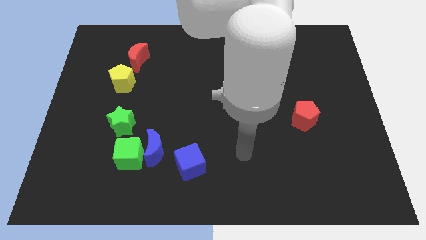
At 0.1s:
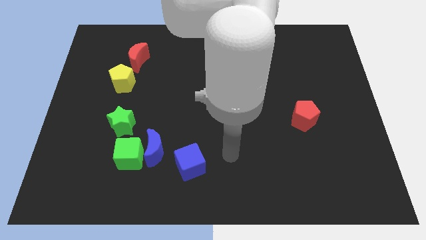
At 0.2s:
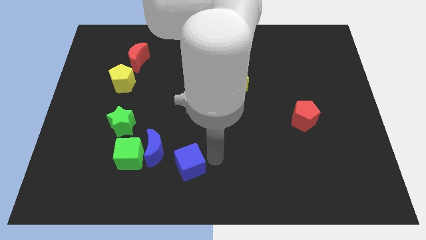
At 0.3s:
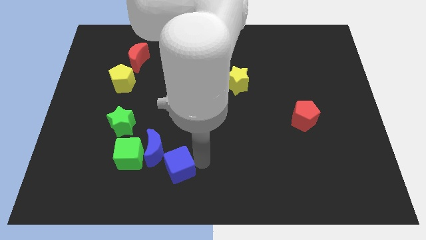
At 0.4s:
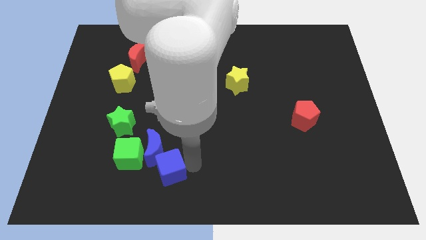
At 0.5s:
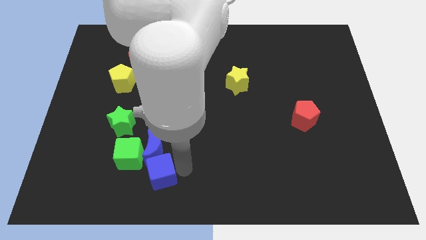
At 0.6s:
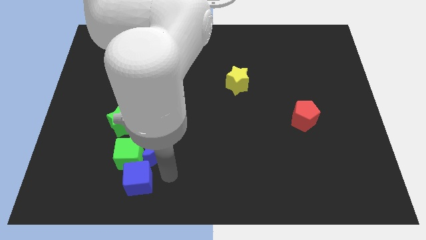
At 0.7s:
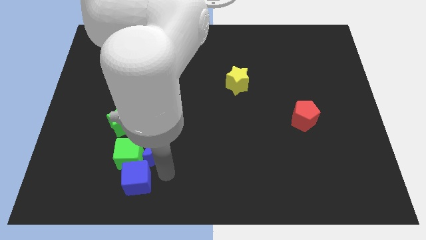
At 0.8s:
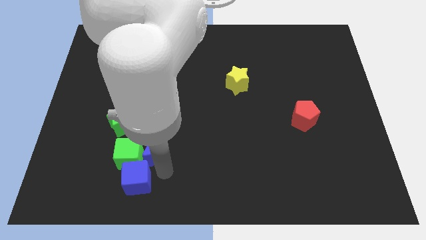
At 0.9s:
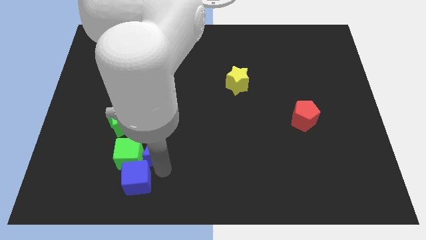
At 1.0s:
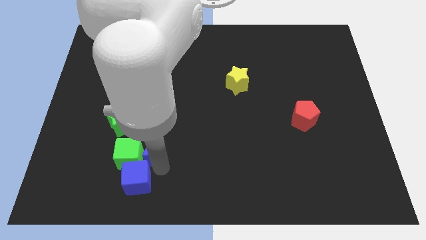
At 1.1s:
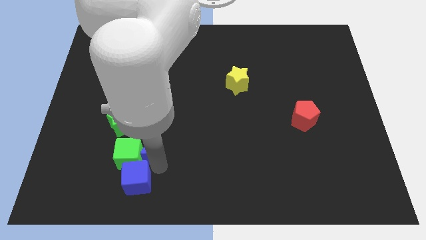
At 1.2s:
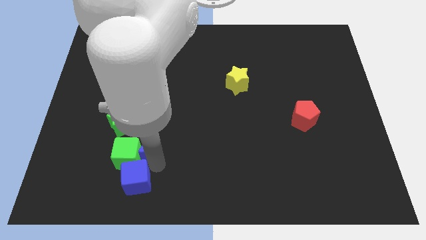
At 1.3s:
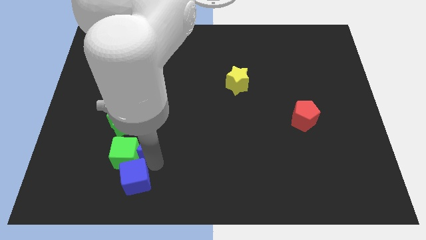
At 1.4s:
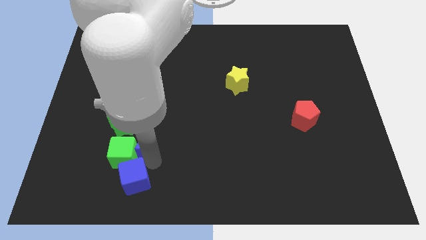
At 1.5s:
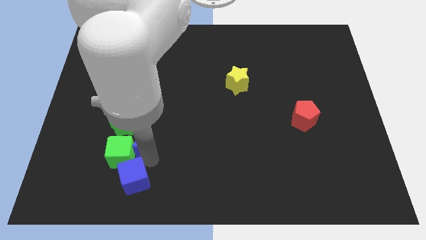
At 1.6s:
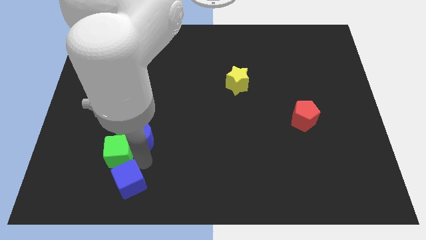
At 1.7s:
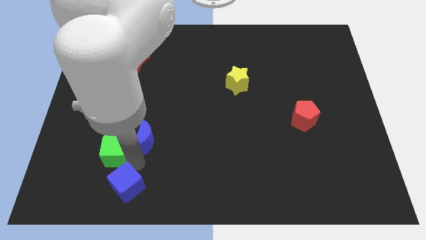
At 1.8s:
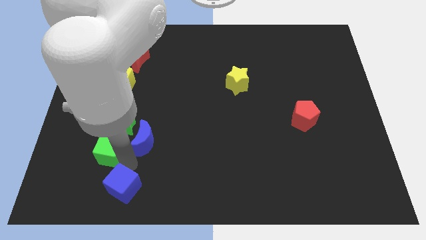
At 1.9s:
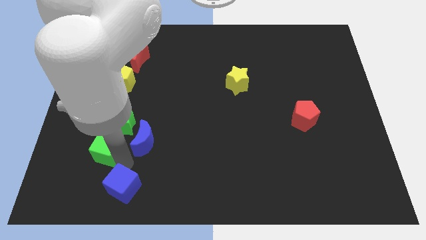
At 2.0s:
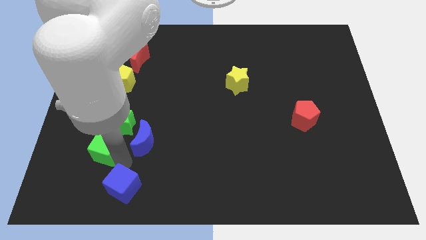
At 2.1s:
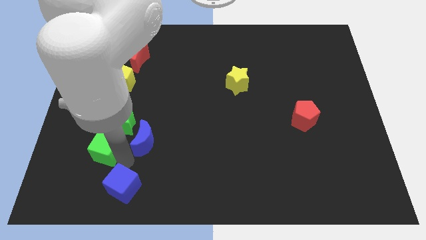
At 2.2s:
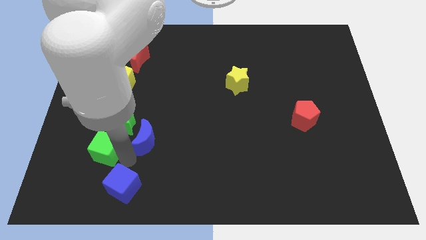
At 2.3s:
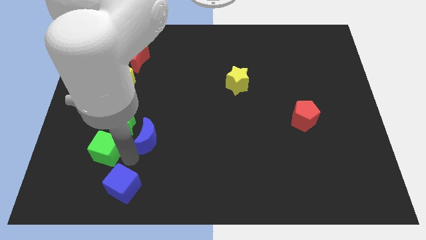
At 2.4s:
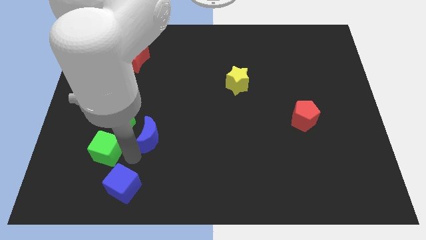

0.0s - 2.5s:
separate the blue moon from the green cube and blue cube

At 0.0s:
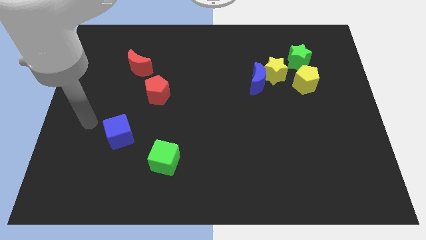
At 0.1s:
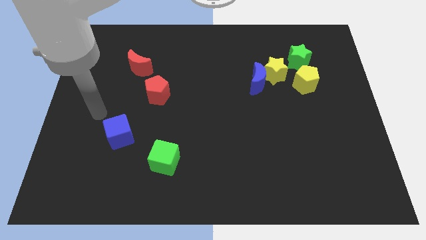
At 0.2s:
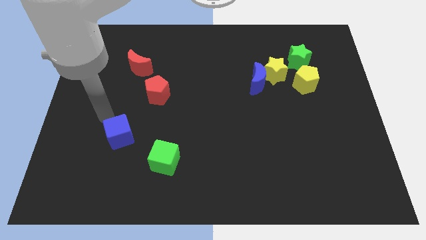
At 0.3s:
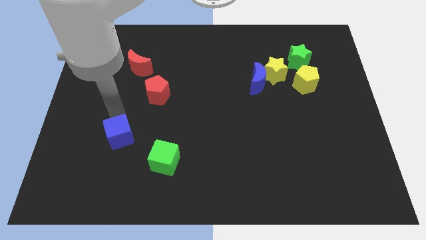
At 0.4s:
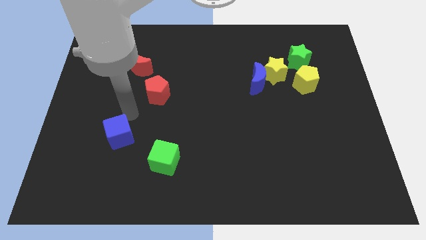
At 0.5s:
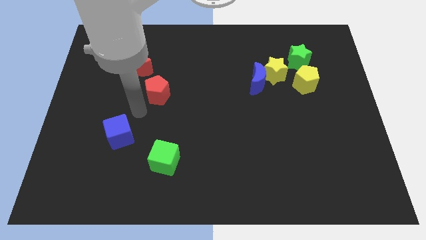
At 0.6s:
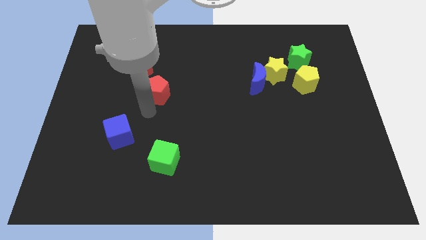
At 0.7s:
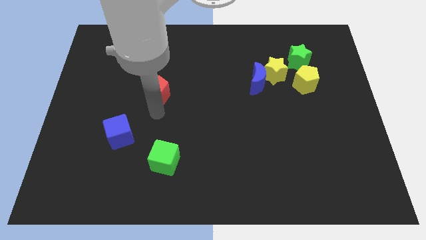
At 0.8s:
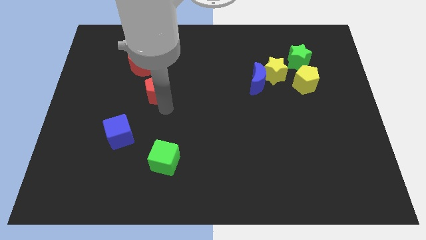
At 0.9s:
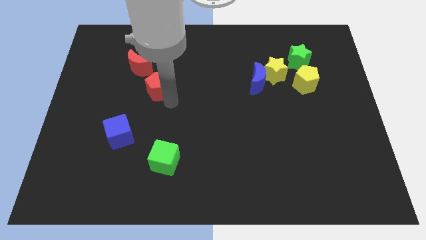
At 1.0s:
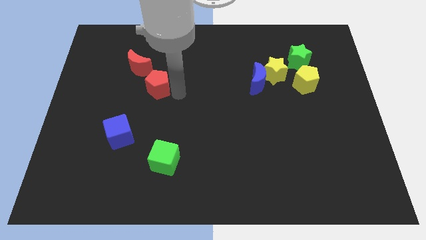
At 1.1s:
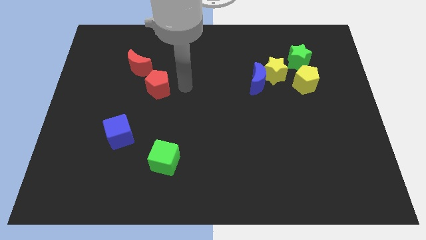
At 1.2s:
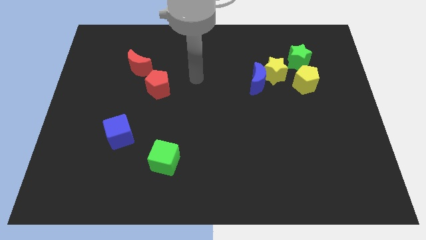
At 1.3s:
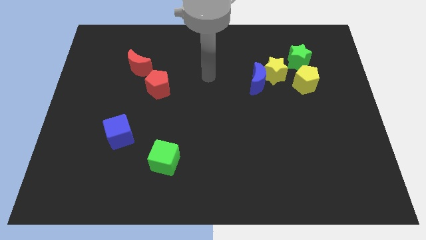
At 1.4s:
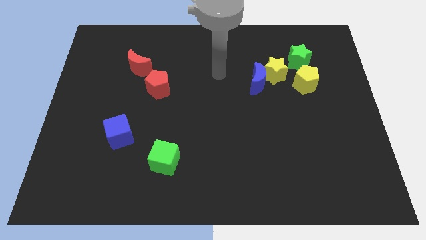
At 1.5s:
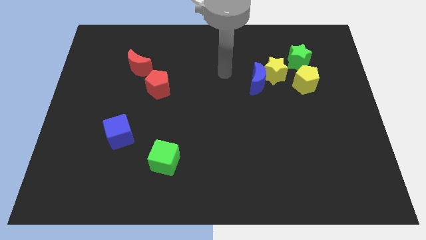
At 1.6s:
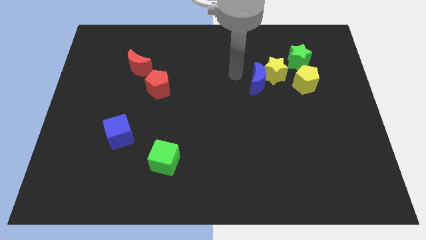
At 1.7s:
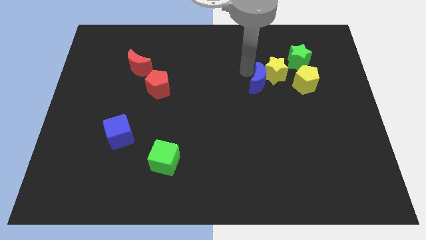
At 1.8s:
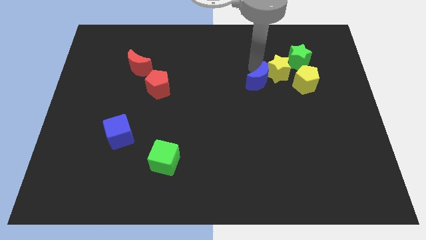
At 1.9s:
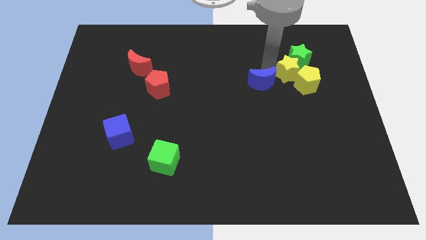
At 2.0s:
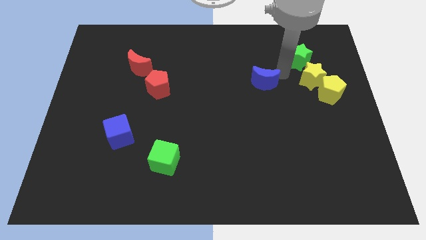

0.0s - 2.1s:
pull the blue moon apart from the yellow star

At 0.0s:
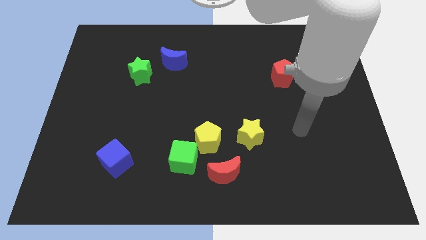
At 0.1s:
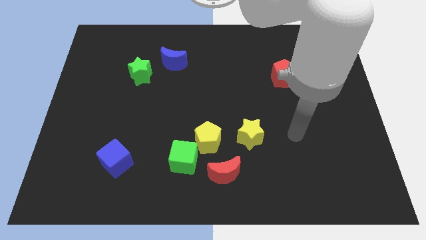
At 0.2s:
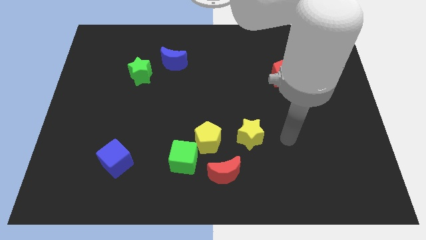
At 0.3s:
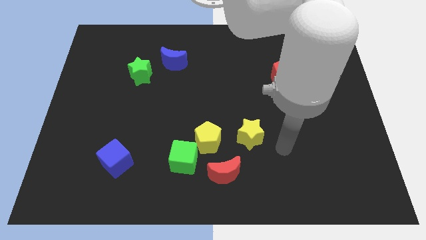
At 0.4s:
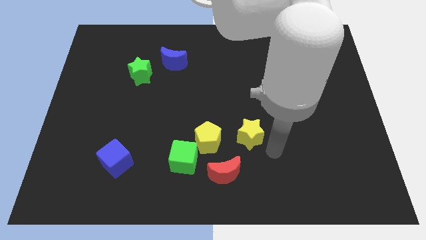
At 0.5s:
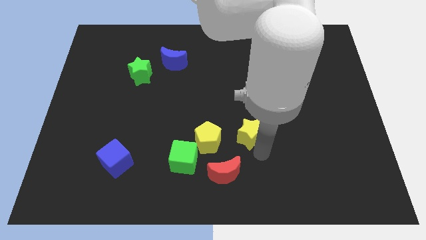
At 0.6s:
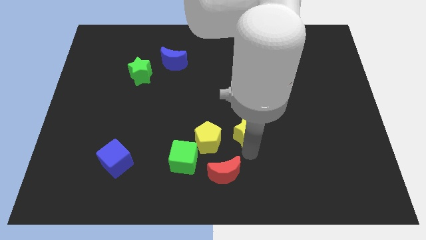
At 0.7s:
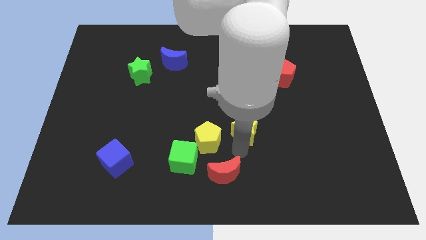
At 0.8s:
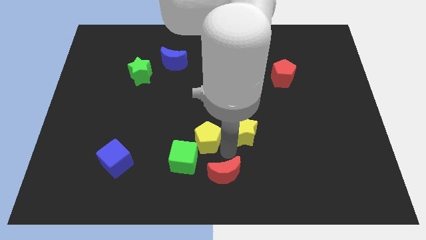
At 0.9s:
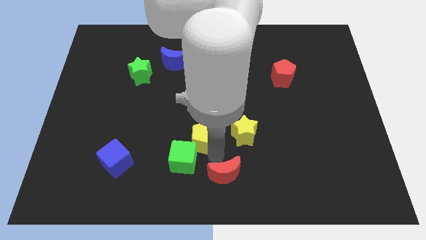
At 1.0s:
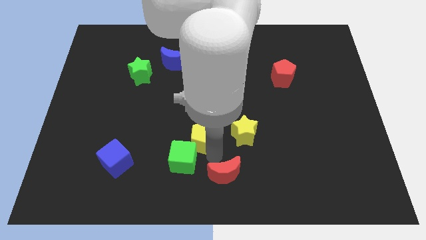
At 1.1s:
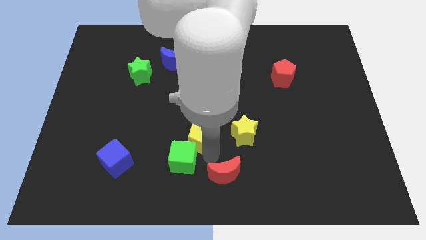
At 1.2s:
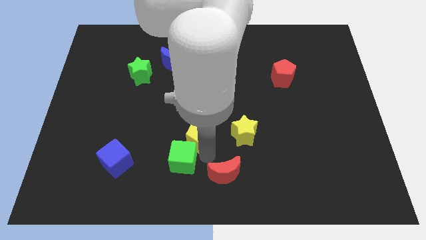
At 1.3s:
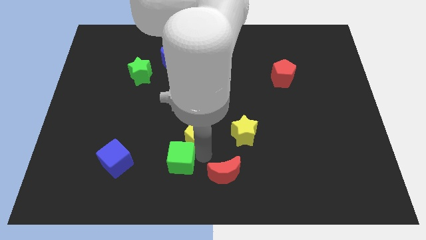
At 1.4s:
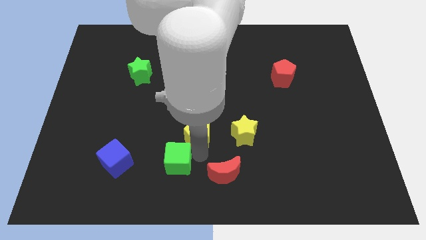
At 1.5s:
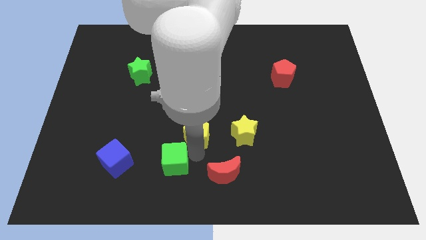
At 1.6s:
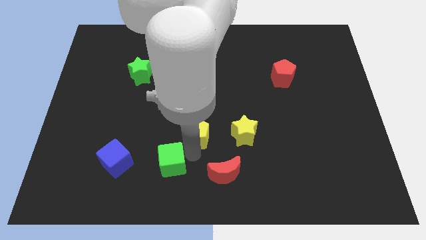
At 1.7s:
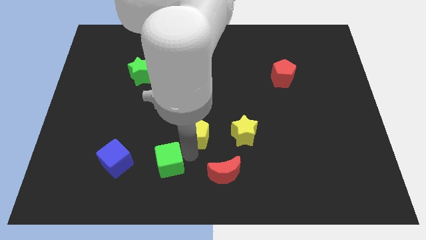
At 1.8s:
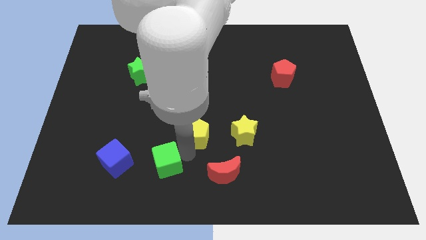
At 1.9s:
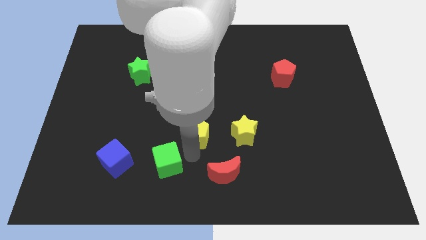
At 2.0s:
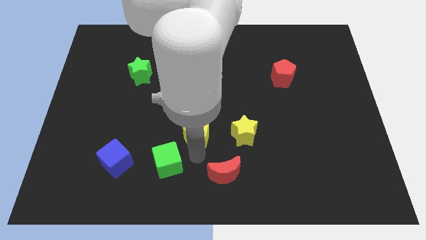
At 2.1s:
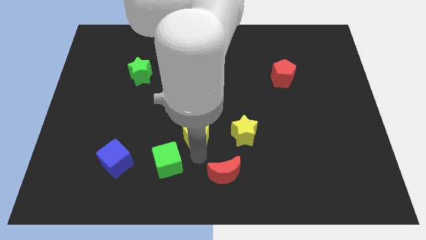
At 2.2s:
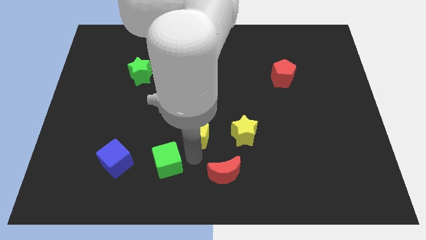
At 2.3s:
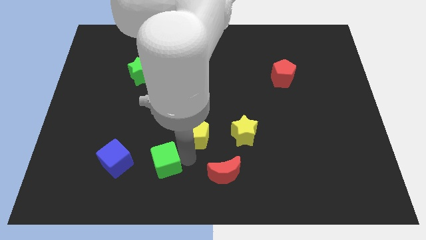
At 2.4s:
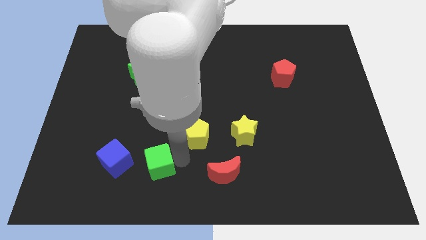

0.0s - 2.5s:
pull the green cube apart from the yellow pentagon and red moon

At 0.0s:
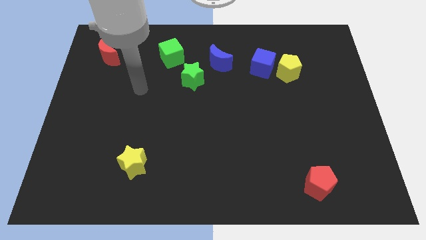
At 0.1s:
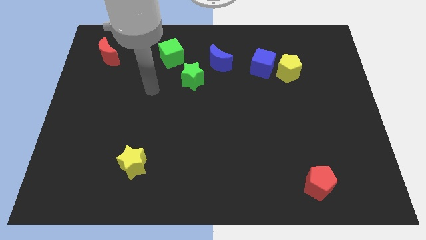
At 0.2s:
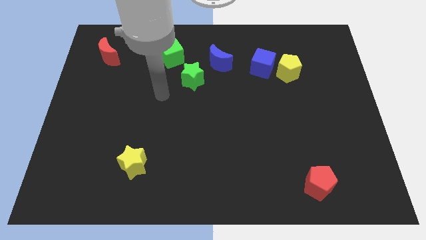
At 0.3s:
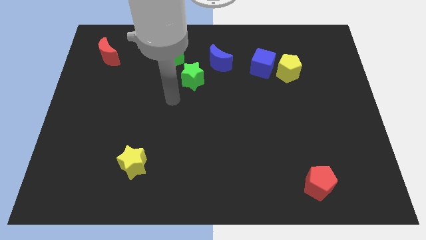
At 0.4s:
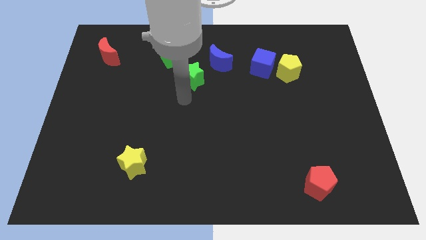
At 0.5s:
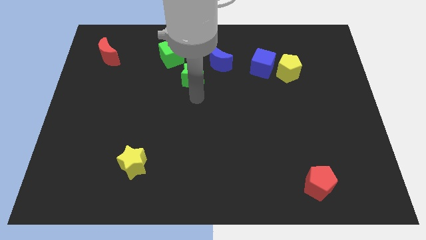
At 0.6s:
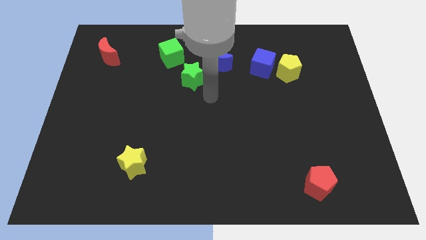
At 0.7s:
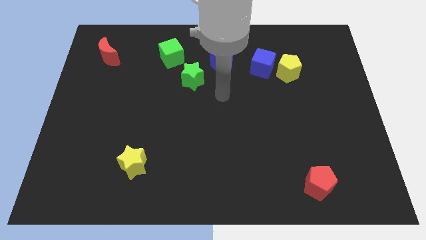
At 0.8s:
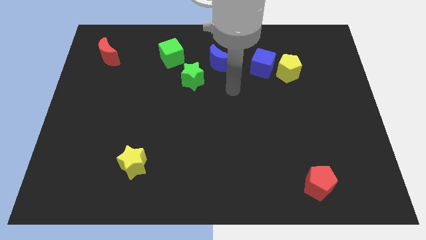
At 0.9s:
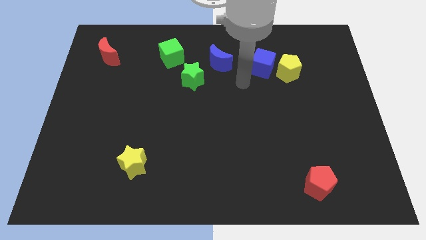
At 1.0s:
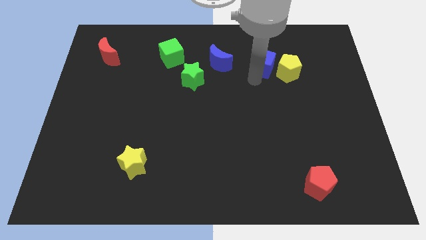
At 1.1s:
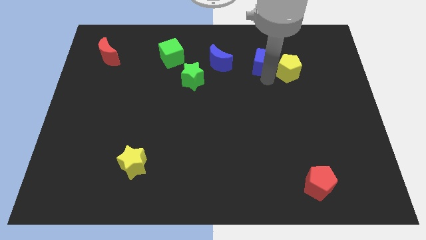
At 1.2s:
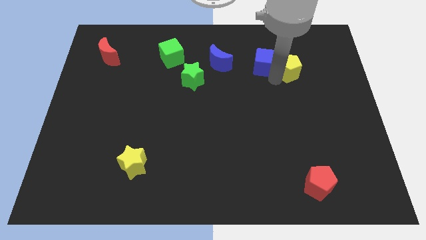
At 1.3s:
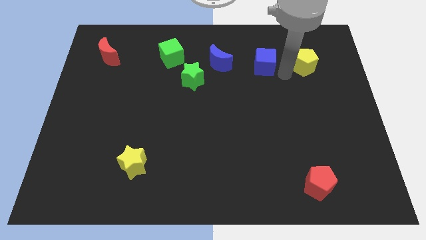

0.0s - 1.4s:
move the blue cube away from the yellow pentagon

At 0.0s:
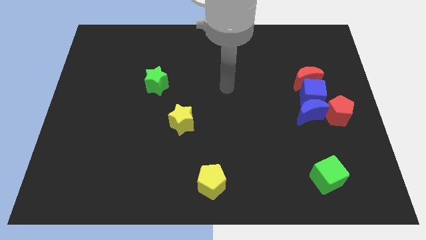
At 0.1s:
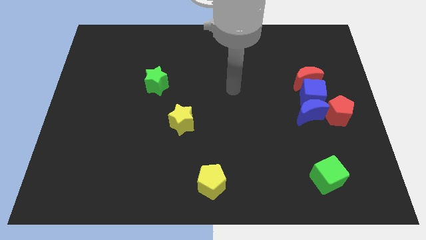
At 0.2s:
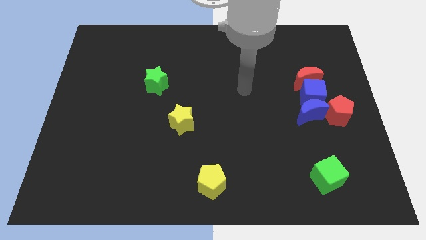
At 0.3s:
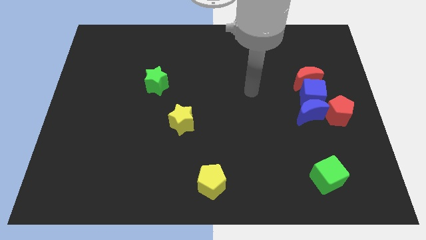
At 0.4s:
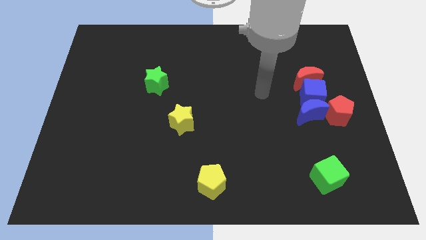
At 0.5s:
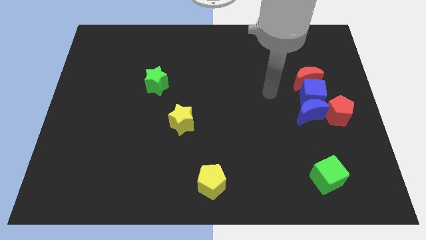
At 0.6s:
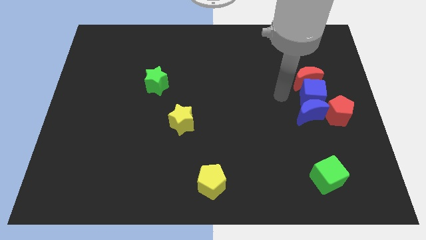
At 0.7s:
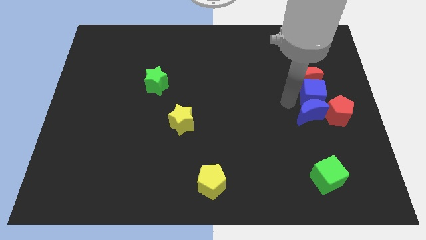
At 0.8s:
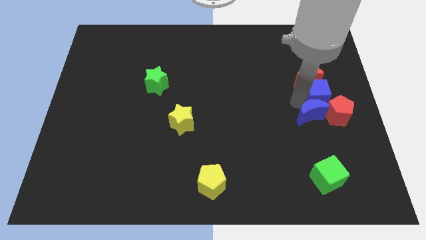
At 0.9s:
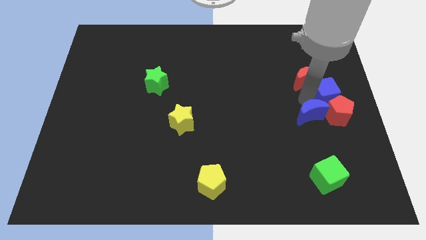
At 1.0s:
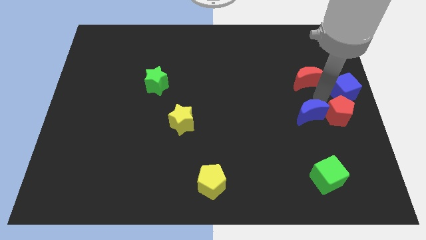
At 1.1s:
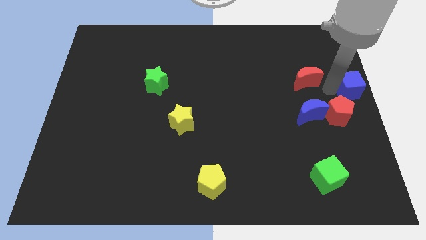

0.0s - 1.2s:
pull the red moon apart from the blue cube
